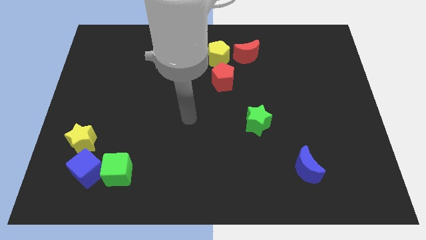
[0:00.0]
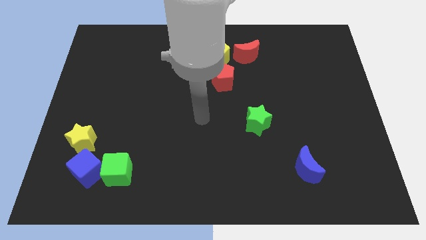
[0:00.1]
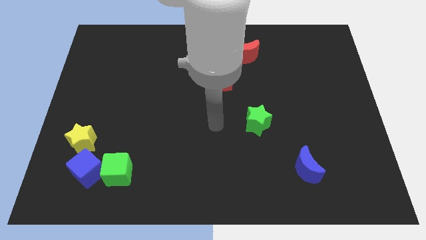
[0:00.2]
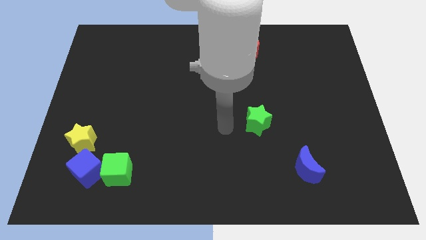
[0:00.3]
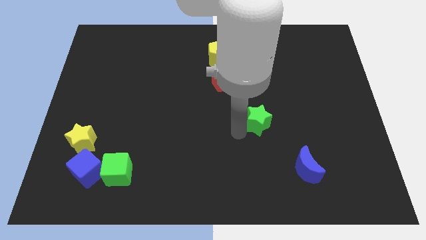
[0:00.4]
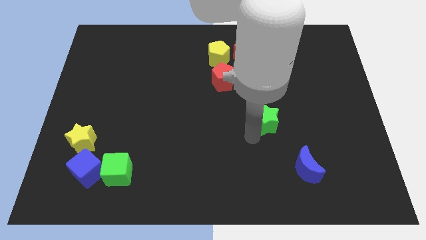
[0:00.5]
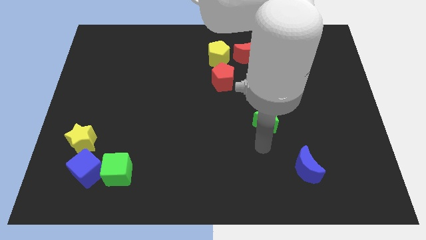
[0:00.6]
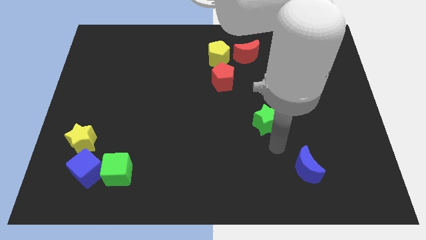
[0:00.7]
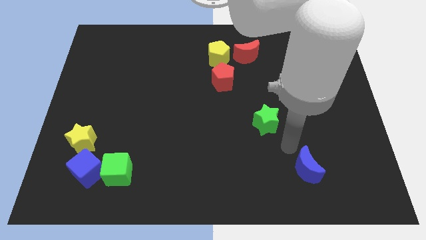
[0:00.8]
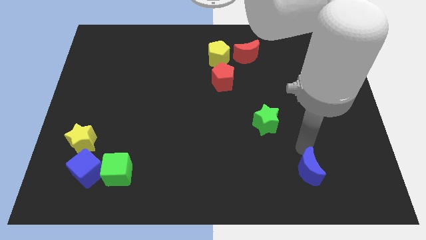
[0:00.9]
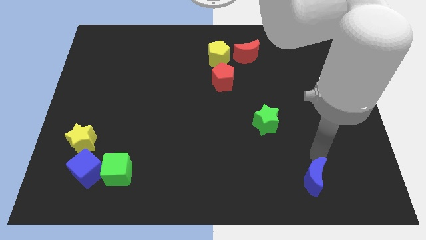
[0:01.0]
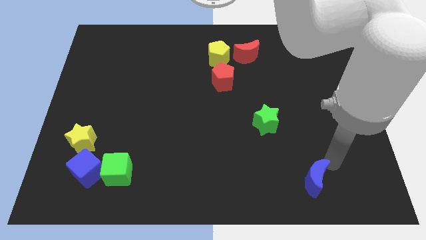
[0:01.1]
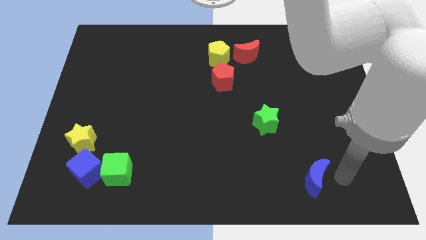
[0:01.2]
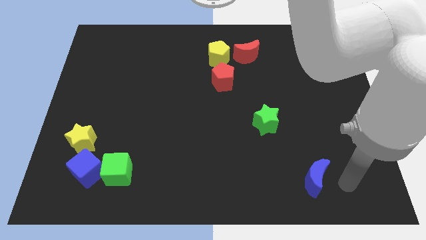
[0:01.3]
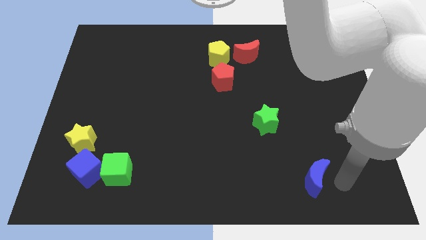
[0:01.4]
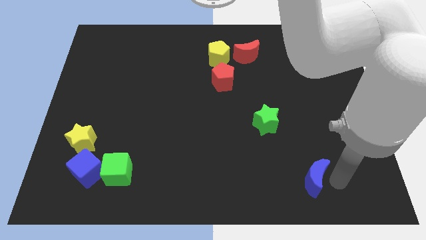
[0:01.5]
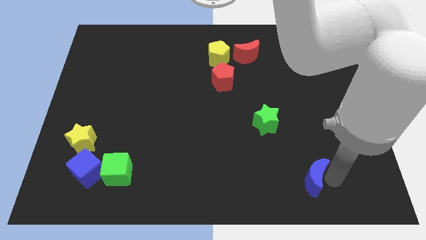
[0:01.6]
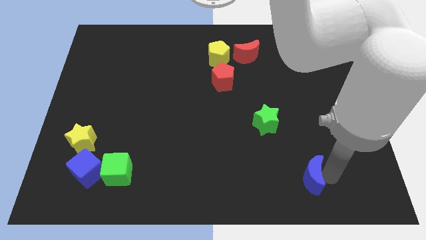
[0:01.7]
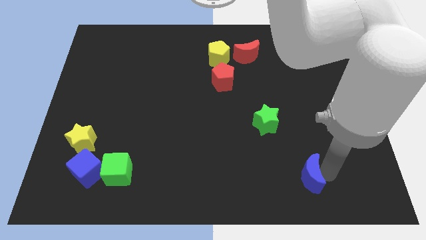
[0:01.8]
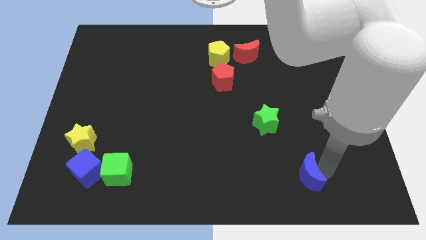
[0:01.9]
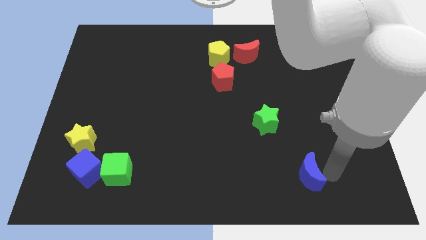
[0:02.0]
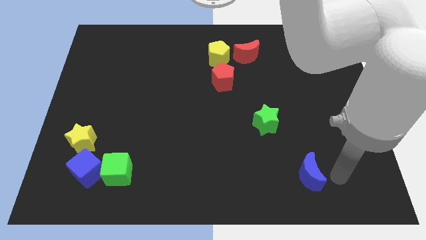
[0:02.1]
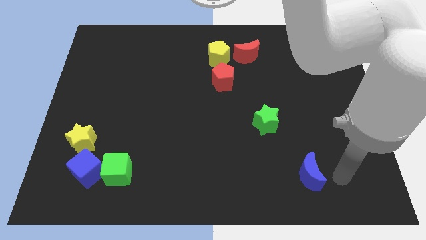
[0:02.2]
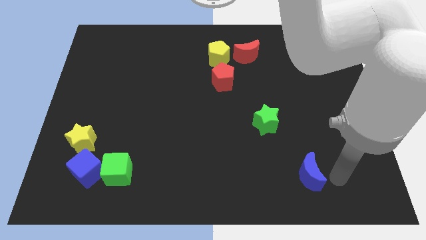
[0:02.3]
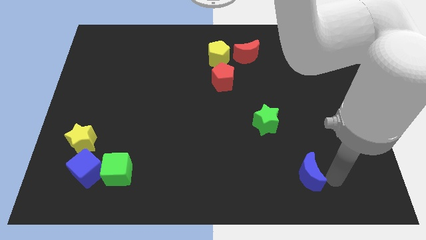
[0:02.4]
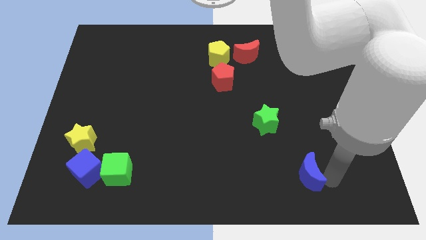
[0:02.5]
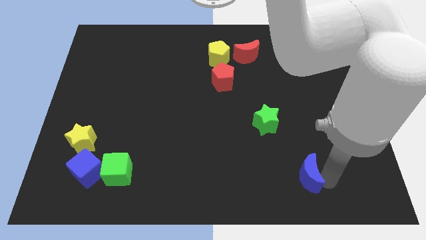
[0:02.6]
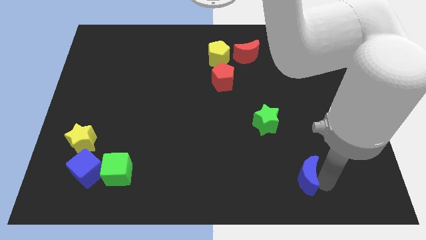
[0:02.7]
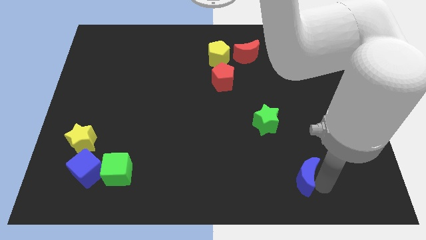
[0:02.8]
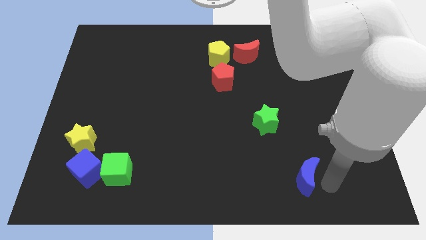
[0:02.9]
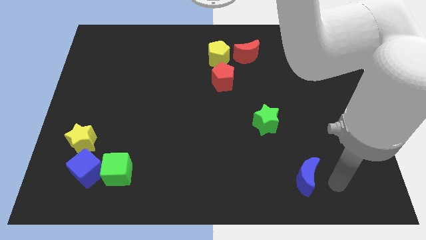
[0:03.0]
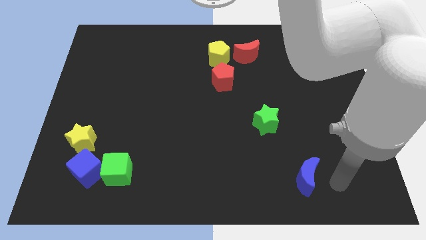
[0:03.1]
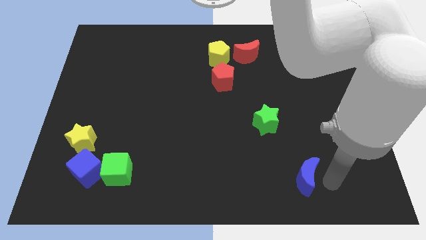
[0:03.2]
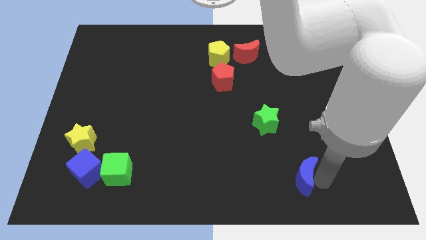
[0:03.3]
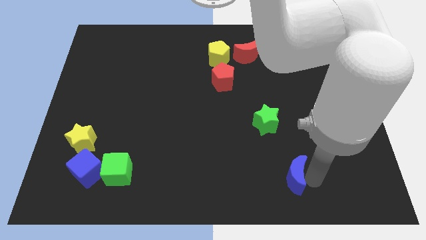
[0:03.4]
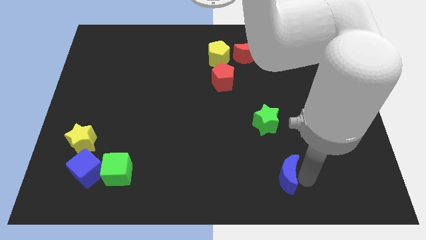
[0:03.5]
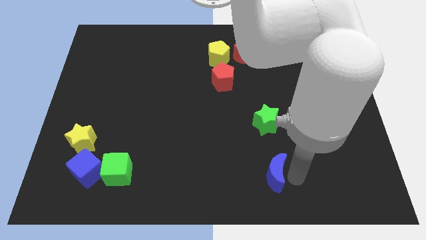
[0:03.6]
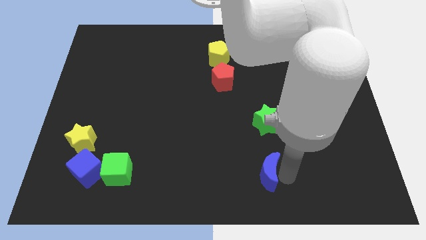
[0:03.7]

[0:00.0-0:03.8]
slightly slide the blue moon to the left

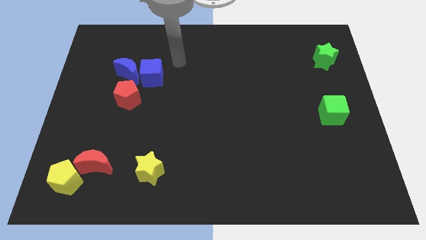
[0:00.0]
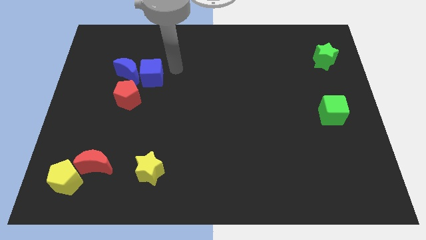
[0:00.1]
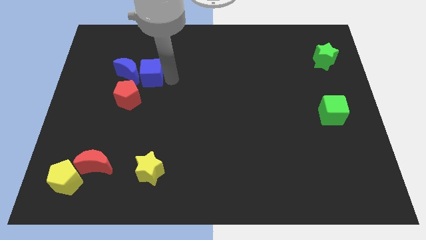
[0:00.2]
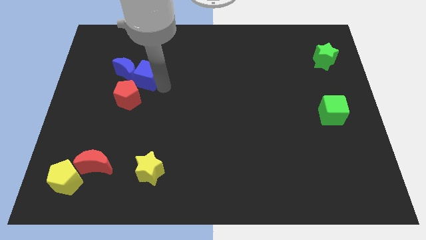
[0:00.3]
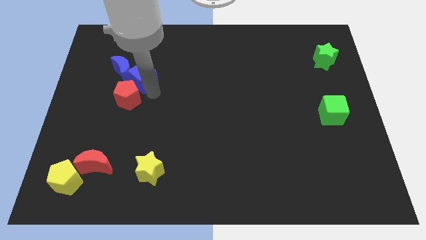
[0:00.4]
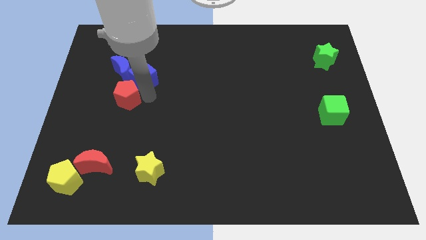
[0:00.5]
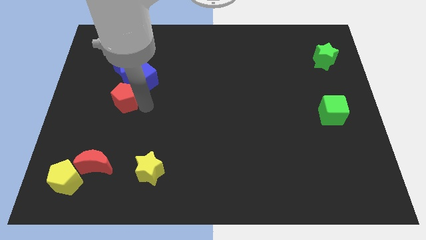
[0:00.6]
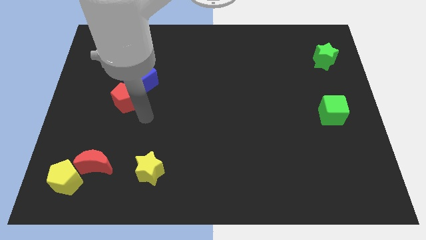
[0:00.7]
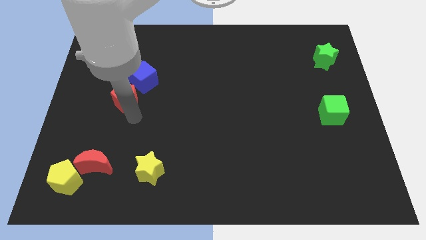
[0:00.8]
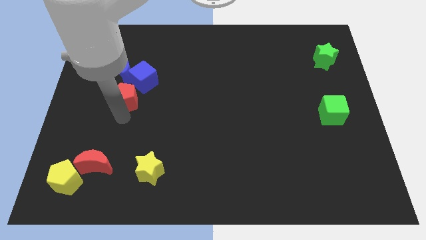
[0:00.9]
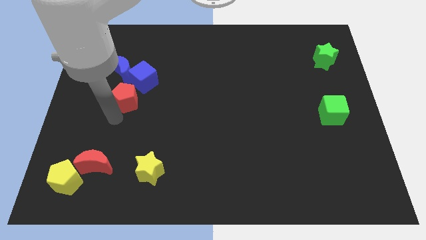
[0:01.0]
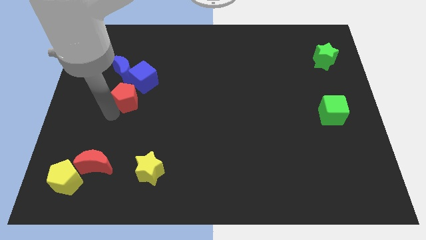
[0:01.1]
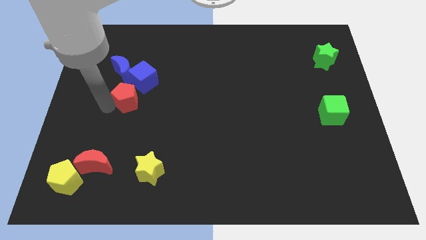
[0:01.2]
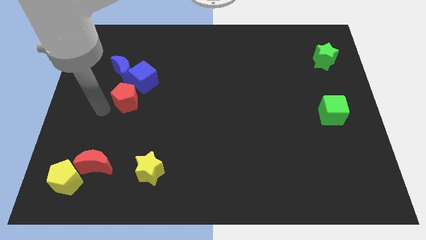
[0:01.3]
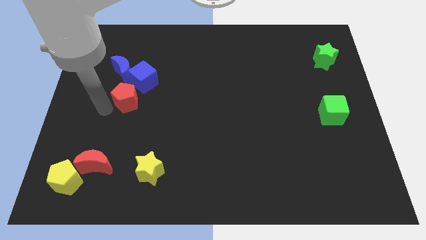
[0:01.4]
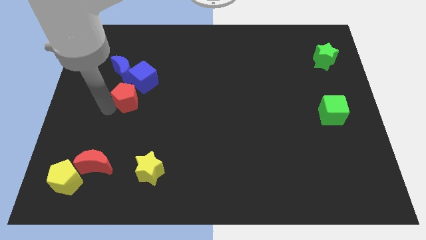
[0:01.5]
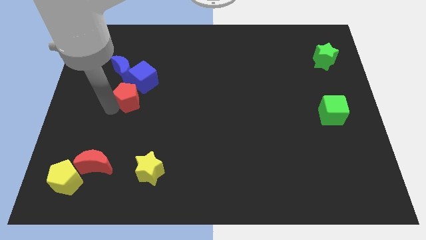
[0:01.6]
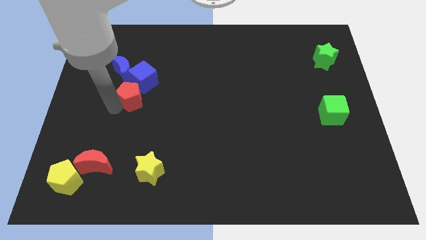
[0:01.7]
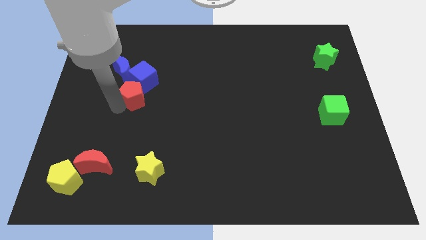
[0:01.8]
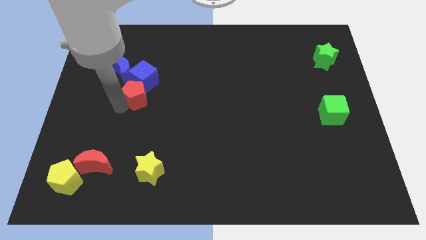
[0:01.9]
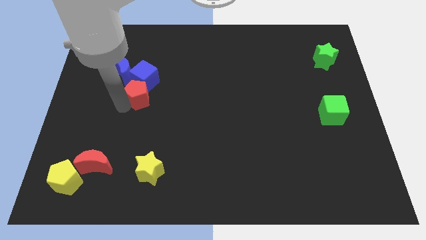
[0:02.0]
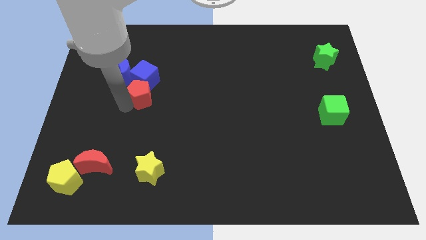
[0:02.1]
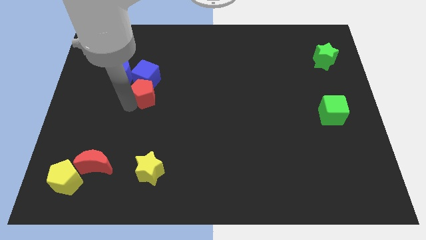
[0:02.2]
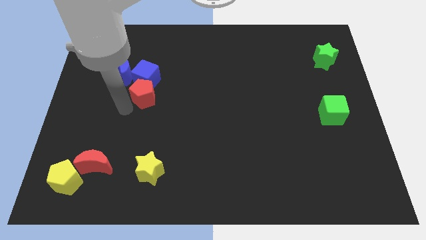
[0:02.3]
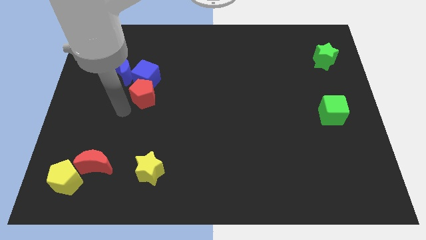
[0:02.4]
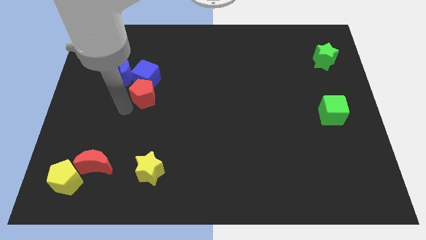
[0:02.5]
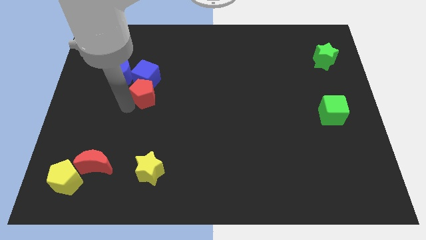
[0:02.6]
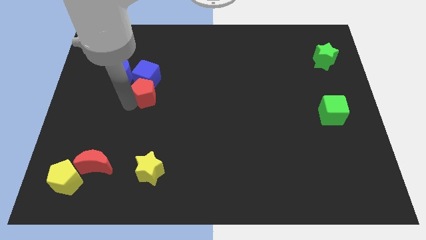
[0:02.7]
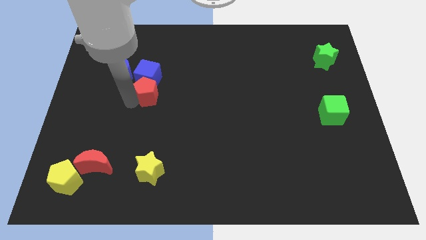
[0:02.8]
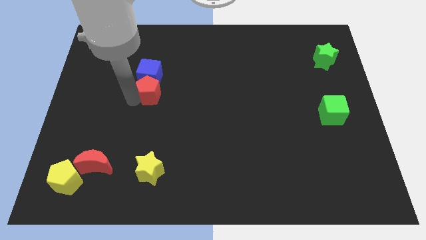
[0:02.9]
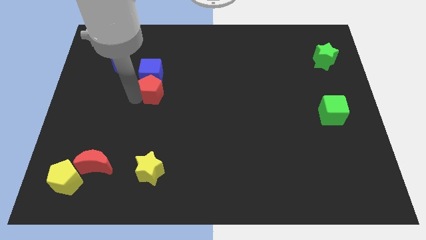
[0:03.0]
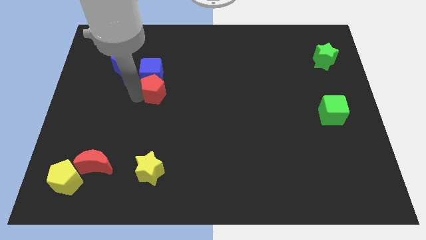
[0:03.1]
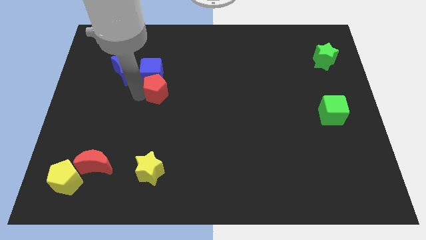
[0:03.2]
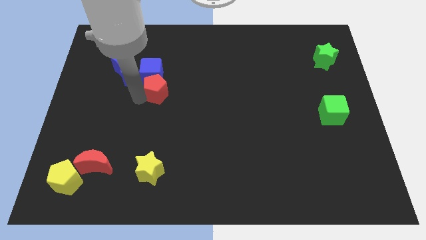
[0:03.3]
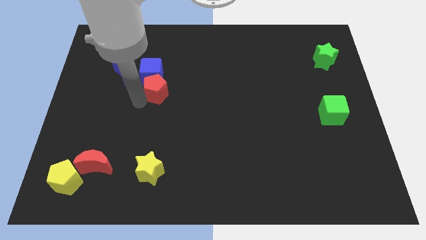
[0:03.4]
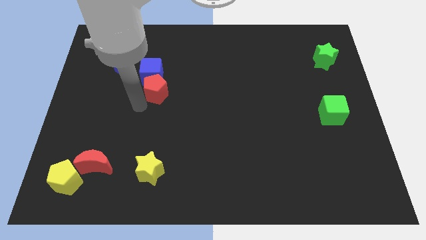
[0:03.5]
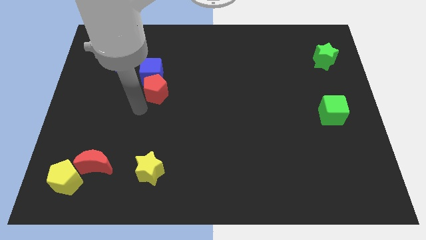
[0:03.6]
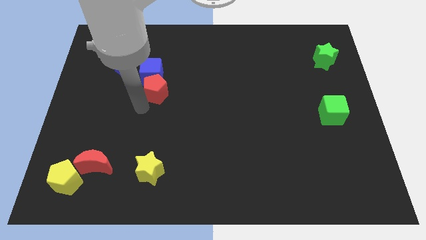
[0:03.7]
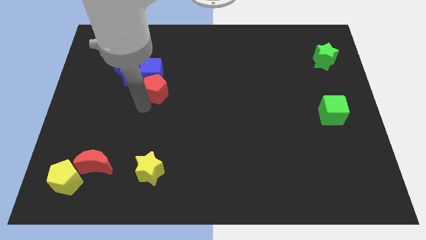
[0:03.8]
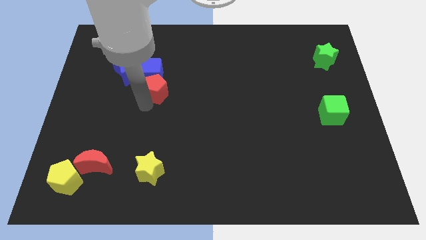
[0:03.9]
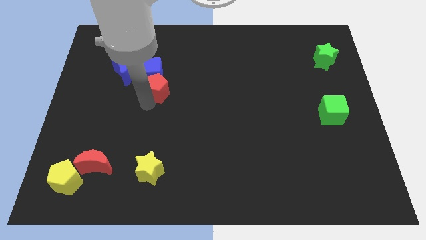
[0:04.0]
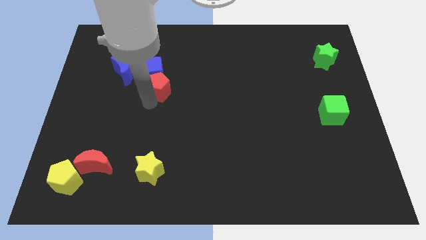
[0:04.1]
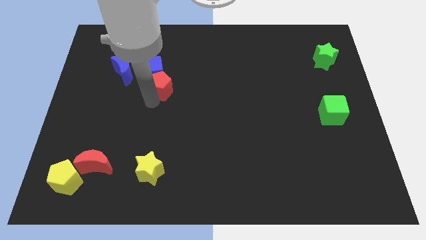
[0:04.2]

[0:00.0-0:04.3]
slide the red pentagon slightly up and to the right diagonally

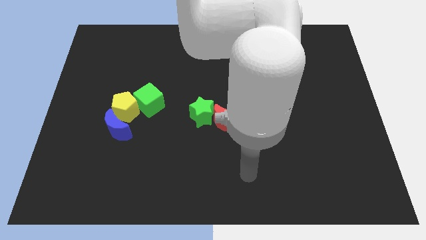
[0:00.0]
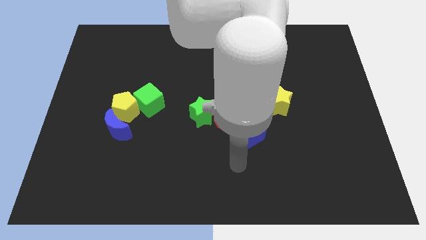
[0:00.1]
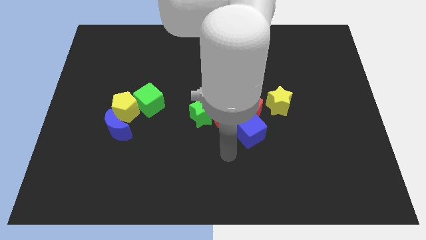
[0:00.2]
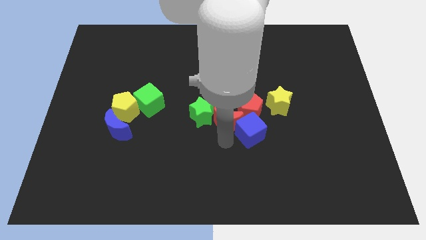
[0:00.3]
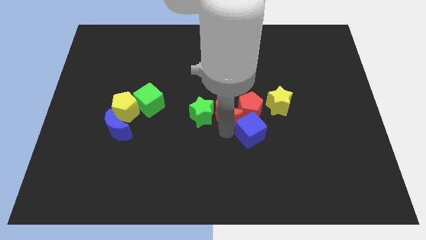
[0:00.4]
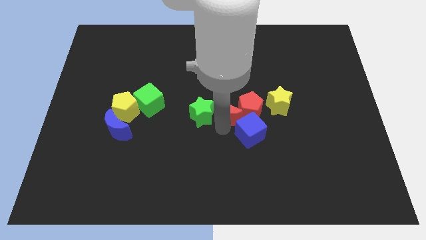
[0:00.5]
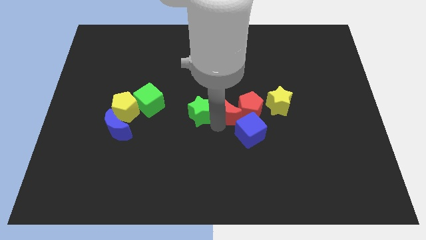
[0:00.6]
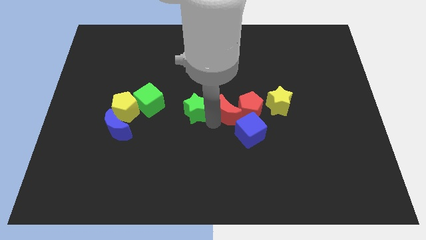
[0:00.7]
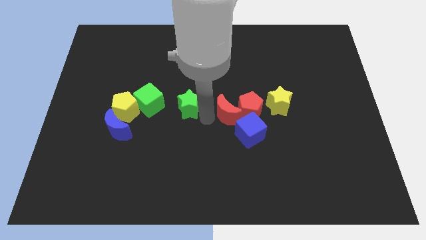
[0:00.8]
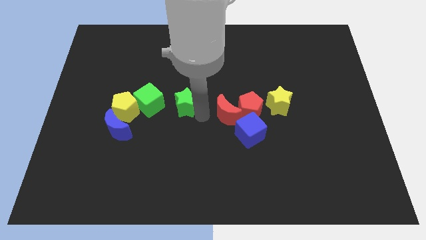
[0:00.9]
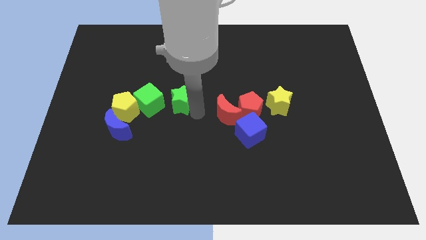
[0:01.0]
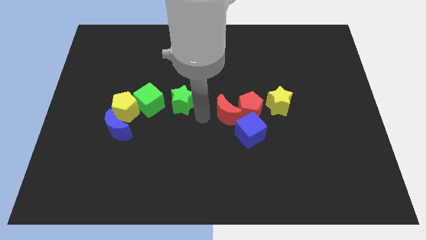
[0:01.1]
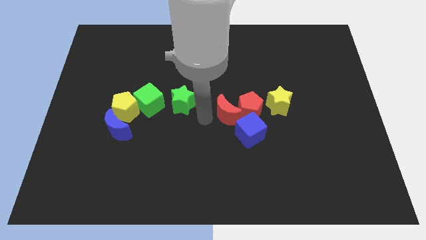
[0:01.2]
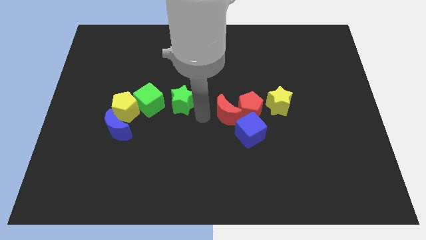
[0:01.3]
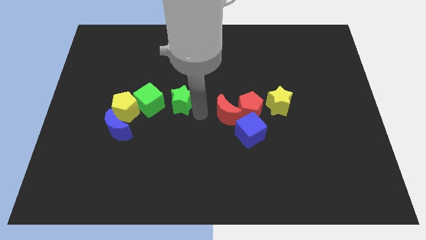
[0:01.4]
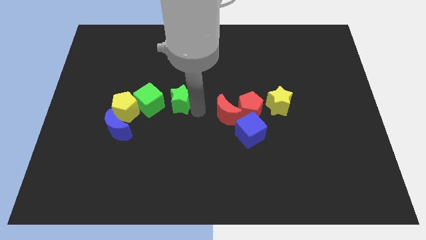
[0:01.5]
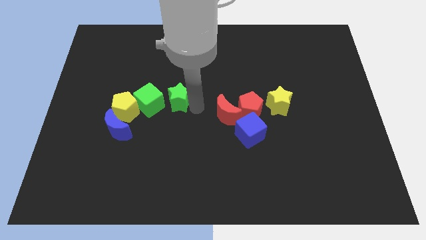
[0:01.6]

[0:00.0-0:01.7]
slide the green star somewhat diagonally up and left
